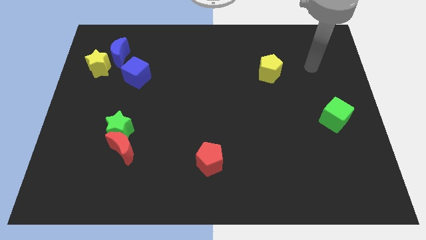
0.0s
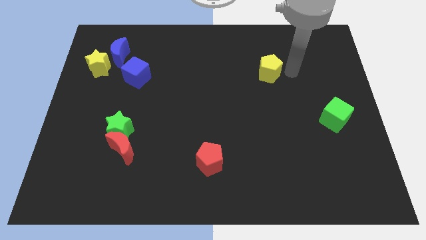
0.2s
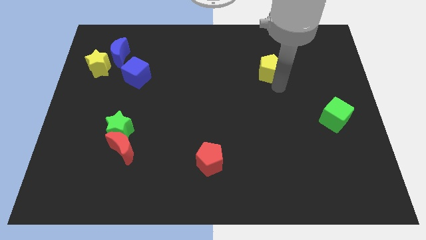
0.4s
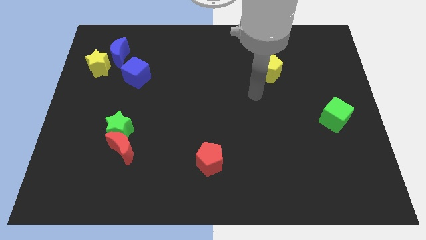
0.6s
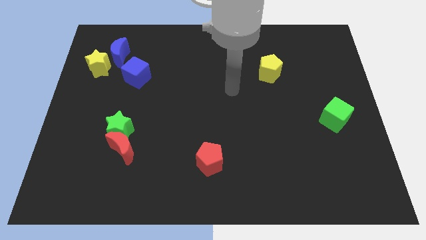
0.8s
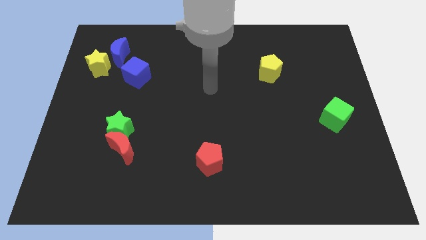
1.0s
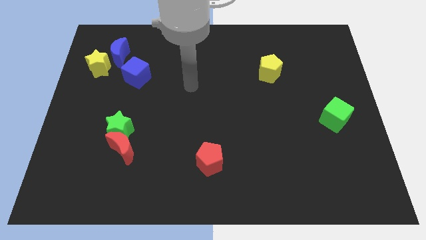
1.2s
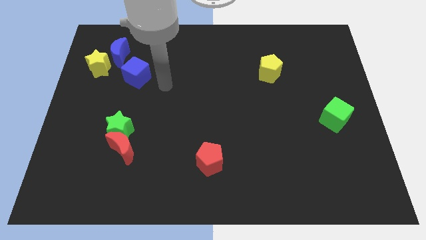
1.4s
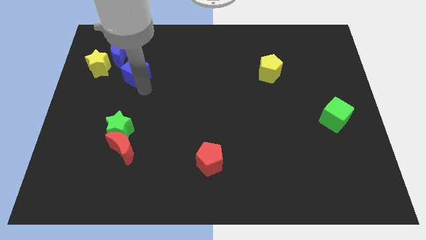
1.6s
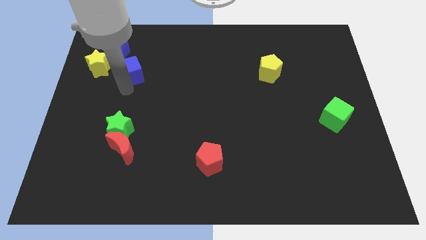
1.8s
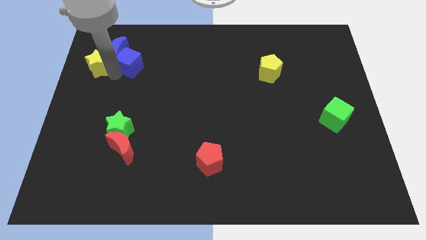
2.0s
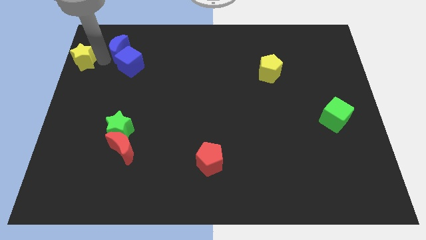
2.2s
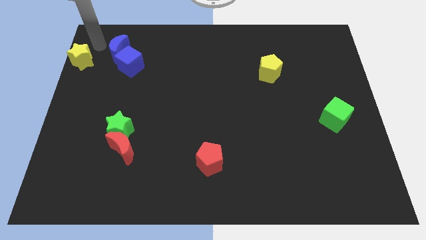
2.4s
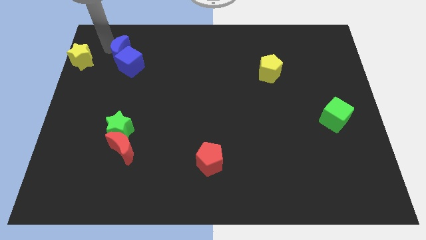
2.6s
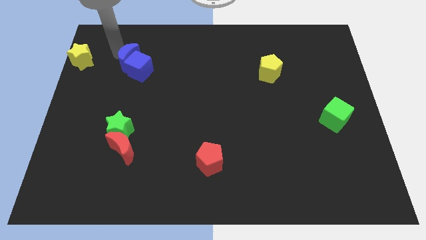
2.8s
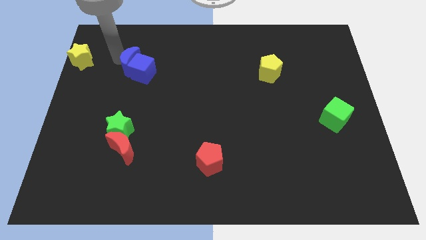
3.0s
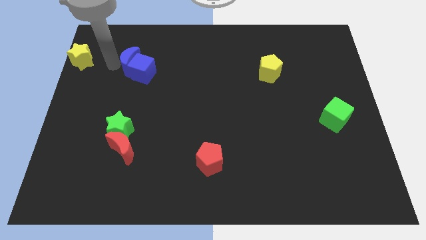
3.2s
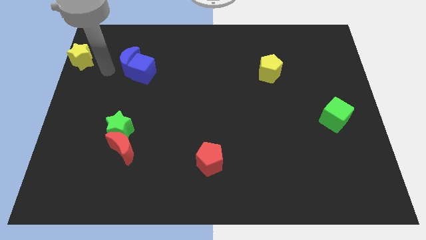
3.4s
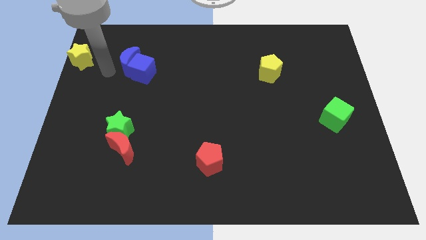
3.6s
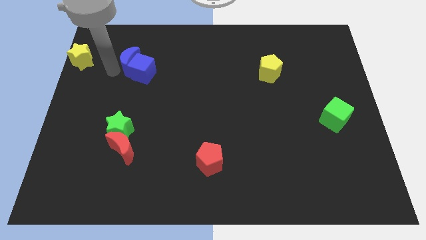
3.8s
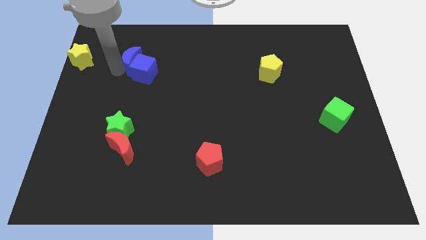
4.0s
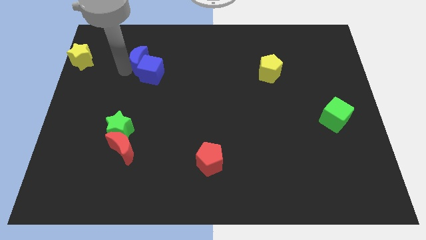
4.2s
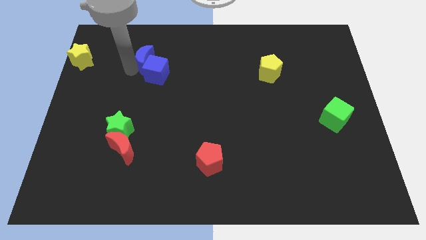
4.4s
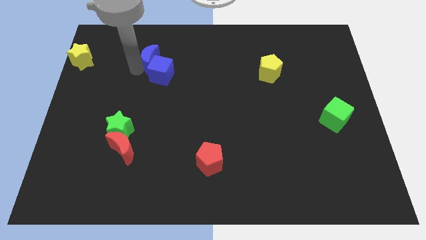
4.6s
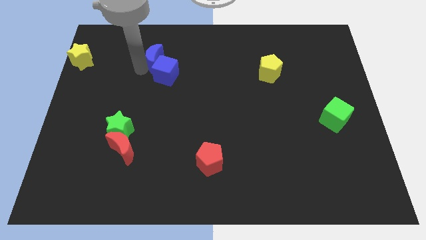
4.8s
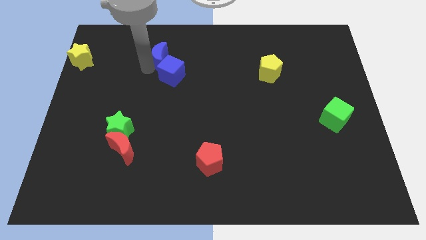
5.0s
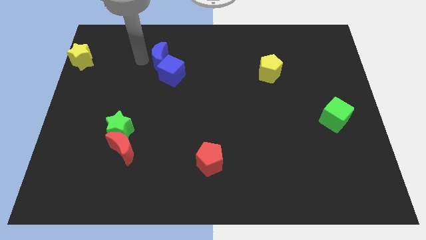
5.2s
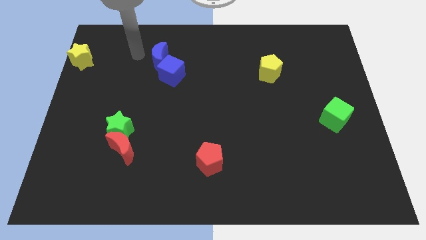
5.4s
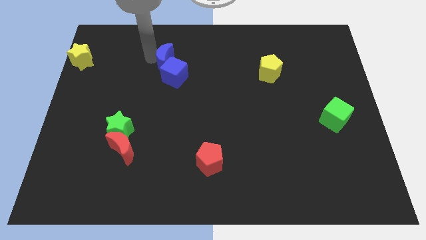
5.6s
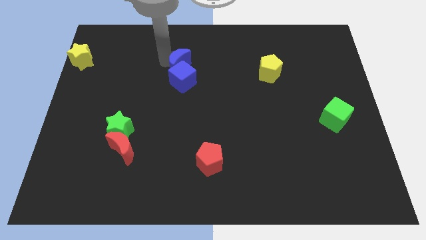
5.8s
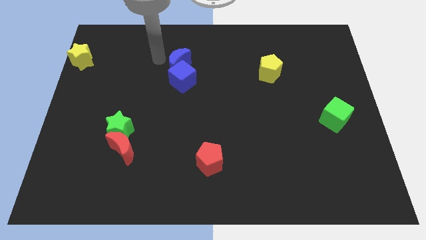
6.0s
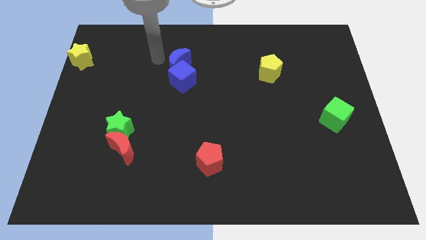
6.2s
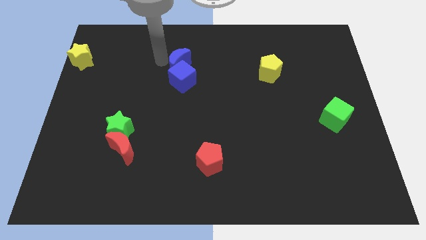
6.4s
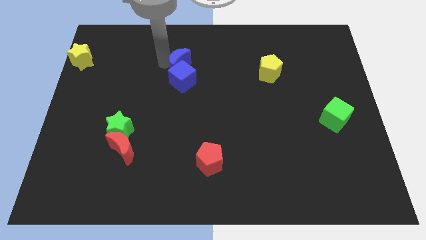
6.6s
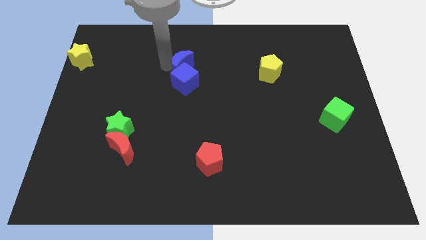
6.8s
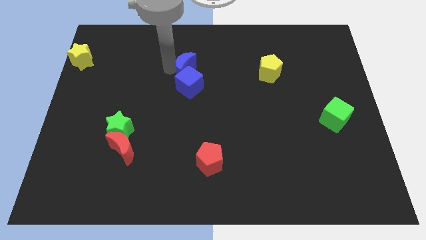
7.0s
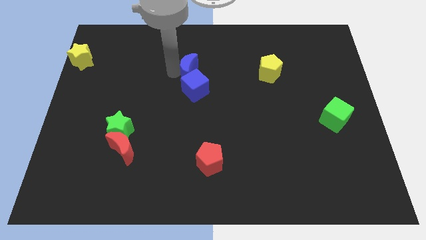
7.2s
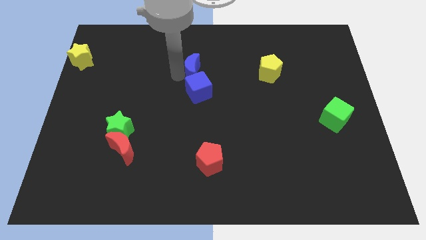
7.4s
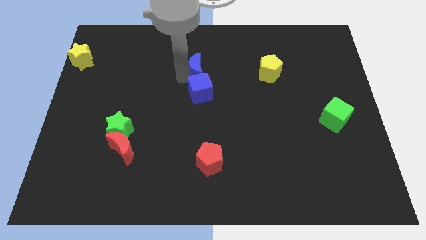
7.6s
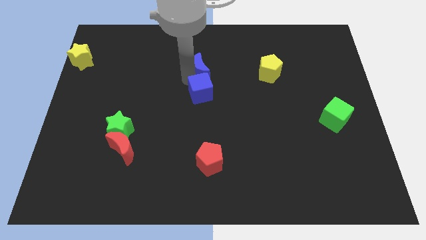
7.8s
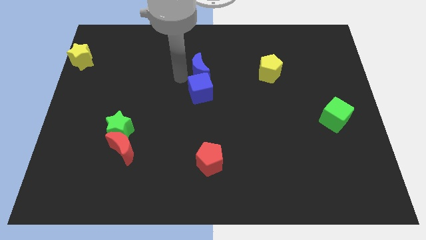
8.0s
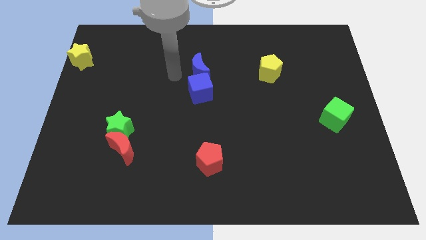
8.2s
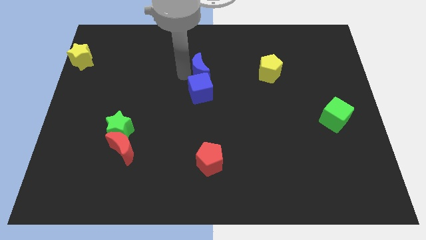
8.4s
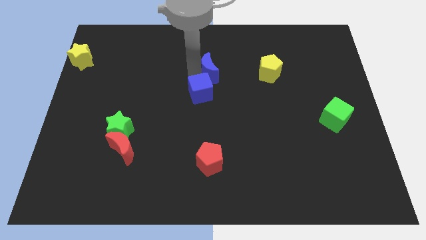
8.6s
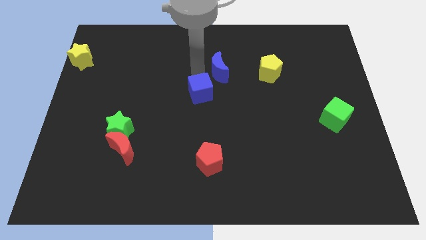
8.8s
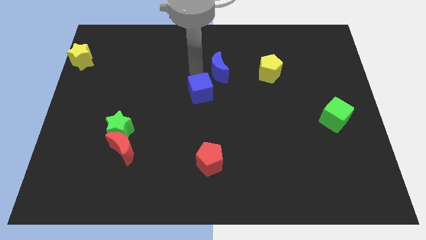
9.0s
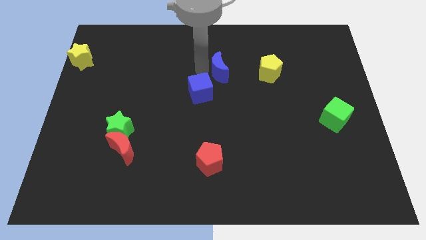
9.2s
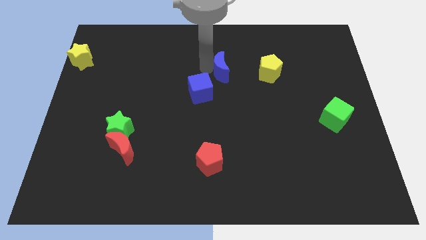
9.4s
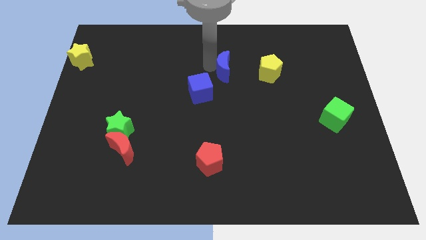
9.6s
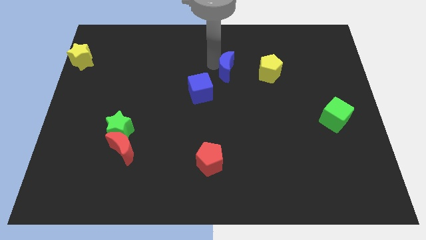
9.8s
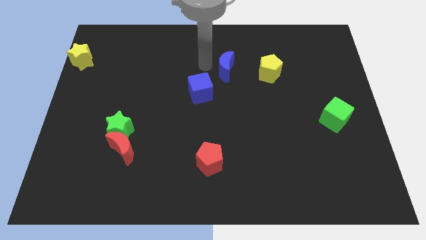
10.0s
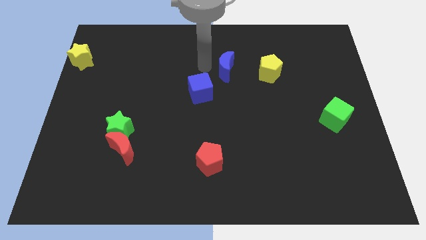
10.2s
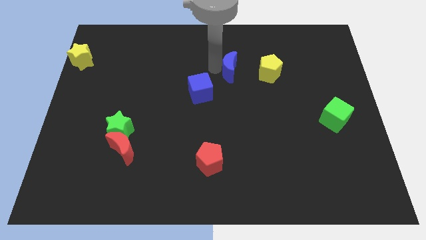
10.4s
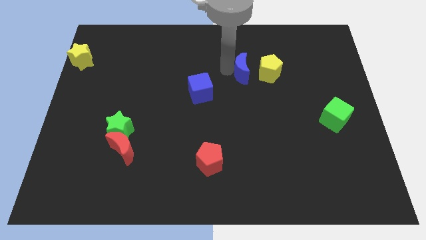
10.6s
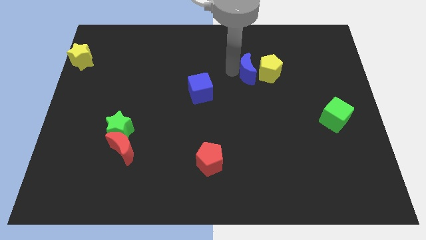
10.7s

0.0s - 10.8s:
put the blue moon towards the yellow pentagon

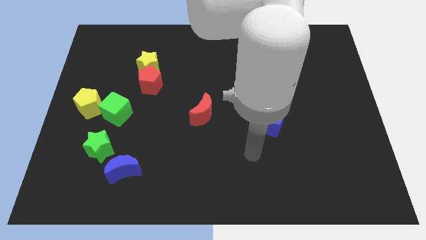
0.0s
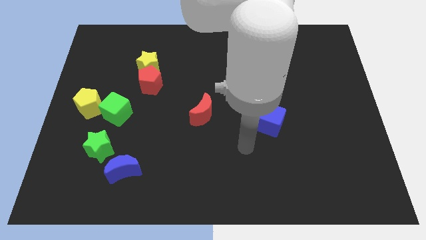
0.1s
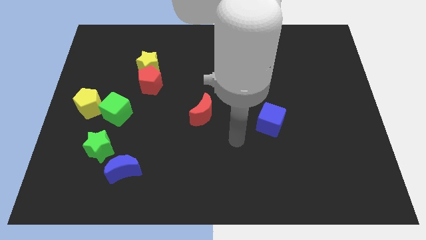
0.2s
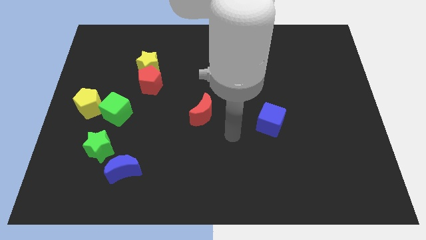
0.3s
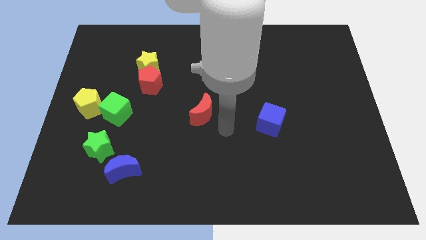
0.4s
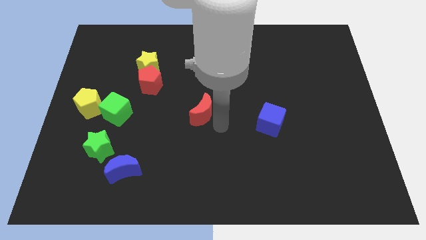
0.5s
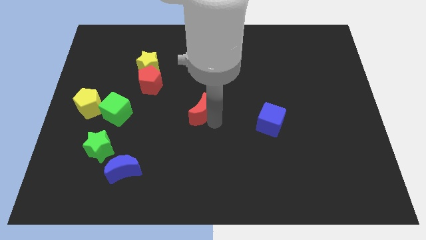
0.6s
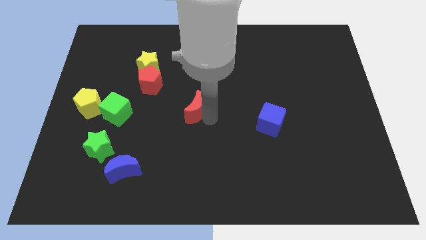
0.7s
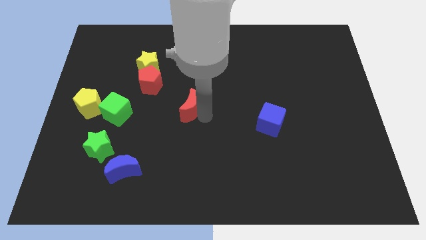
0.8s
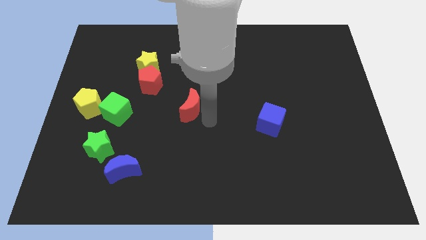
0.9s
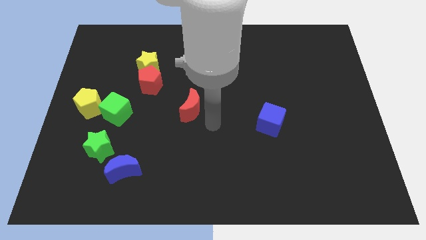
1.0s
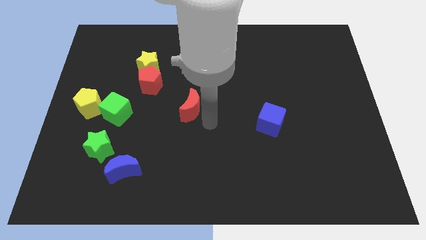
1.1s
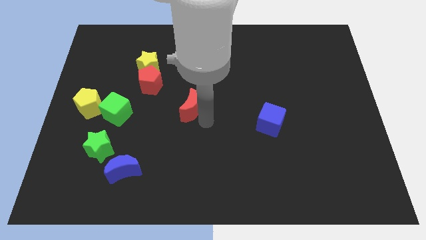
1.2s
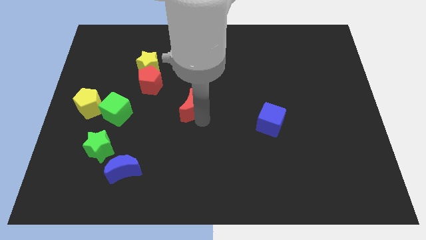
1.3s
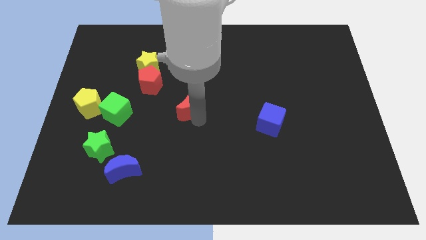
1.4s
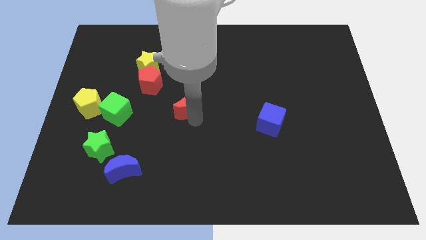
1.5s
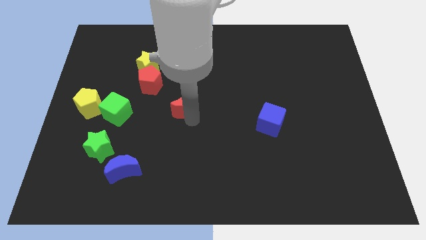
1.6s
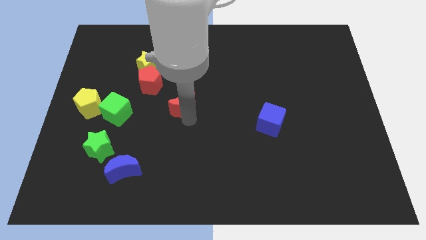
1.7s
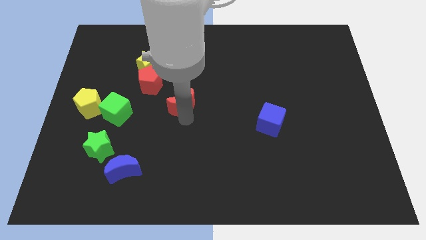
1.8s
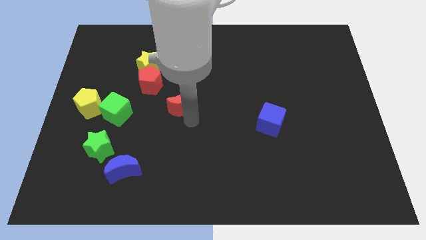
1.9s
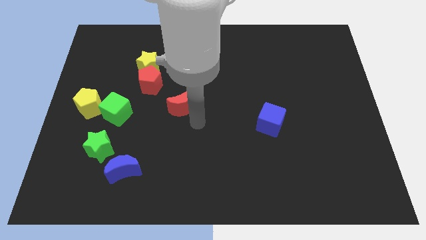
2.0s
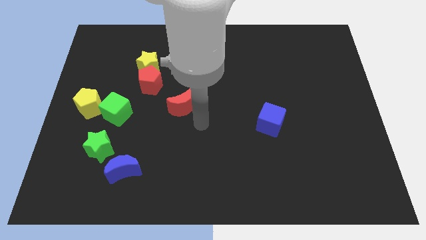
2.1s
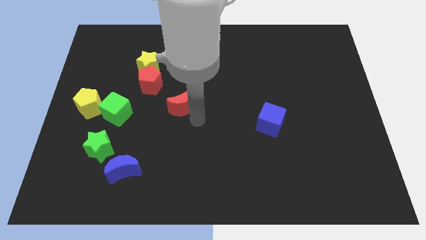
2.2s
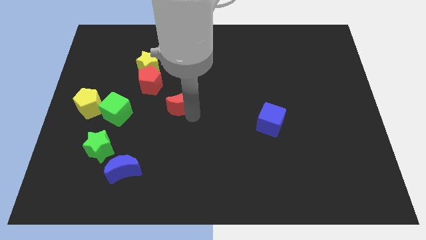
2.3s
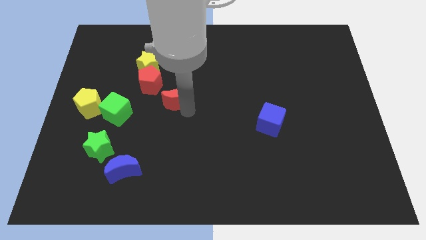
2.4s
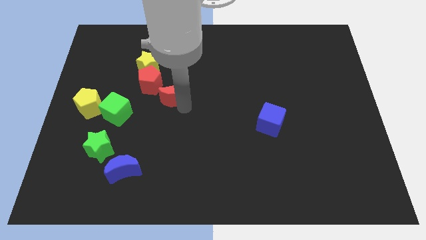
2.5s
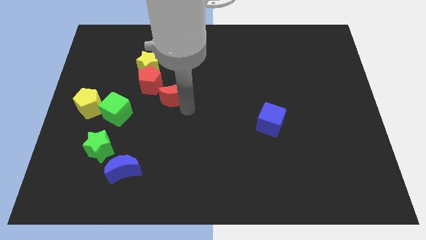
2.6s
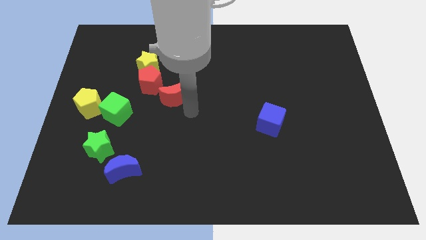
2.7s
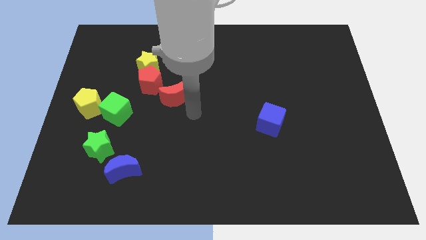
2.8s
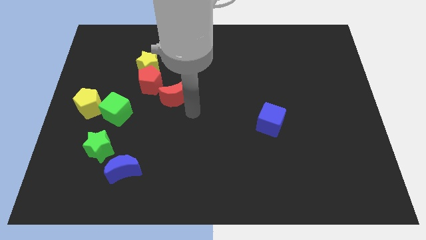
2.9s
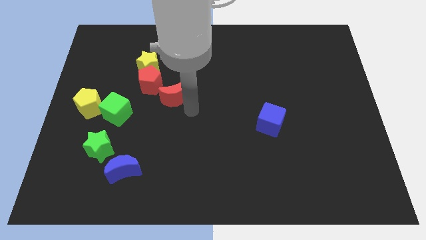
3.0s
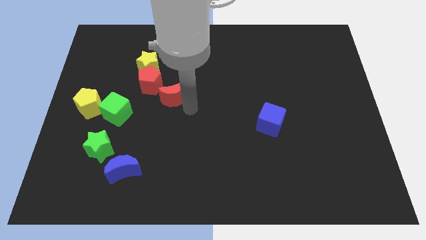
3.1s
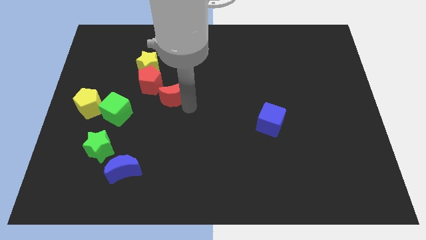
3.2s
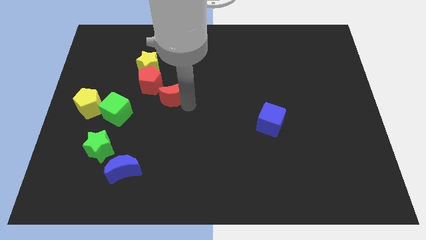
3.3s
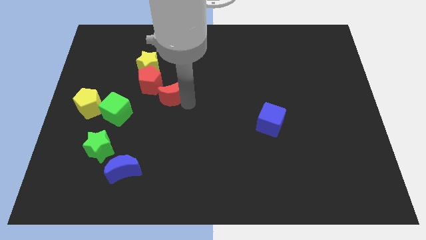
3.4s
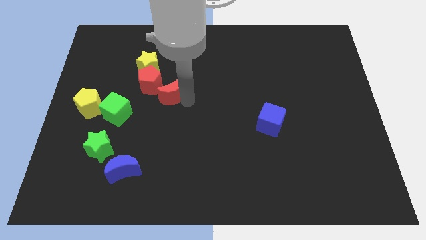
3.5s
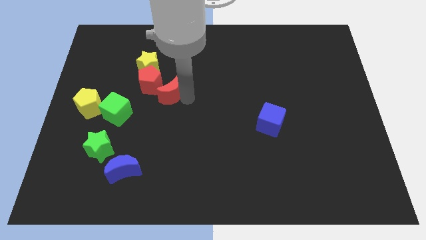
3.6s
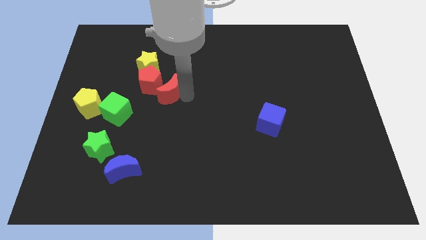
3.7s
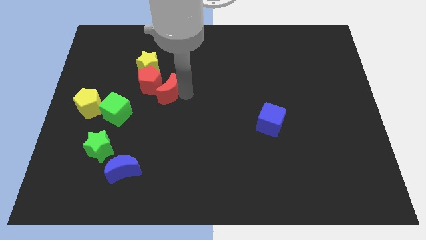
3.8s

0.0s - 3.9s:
move the red moon to the red pentagon
